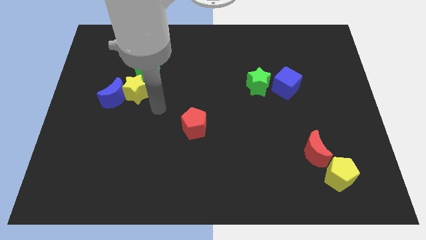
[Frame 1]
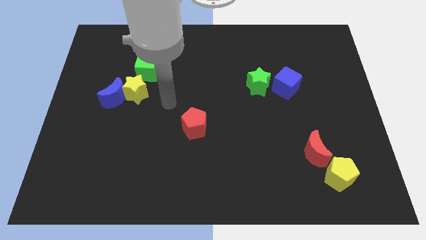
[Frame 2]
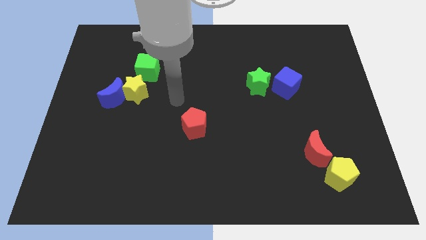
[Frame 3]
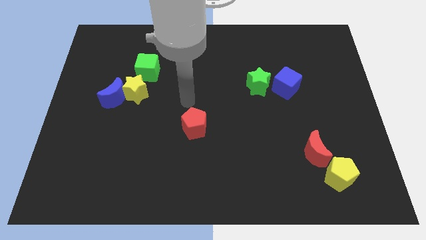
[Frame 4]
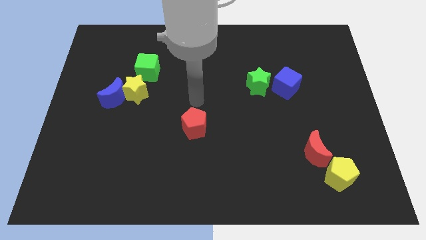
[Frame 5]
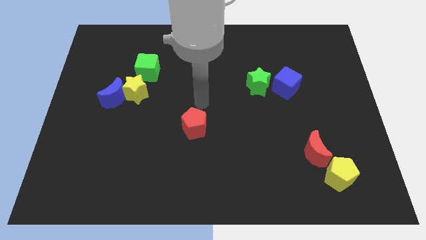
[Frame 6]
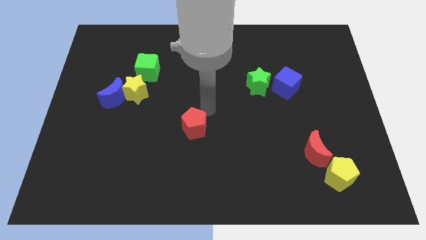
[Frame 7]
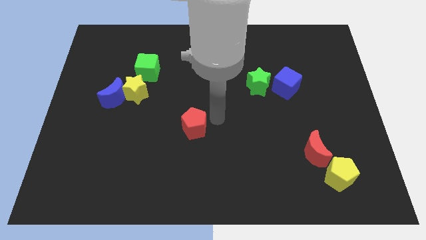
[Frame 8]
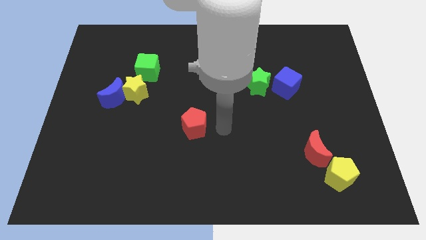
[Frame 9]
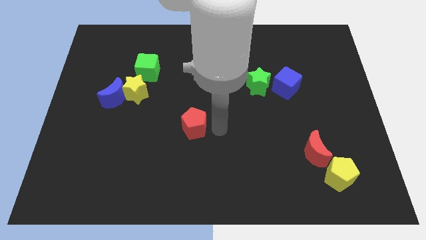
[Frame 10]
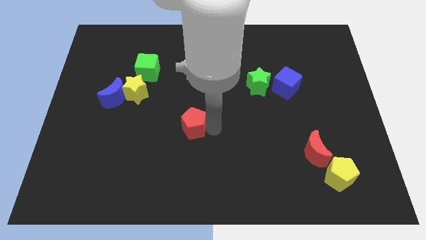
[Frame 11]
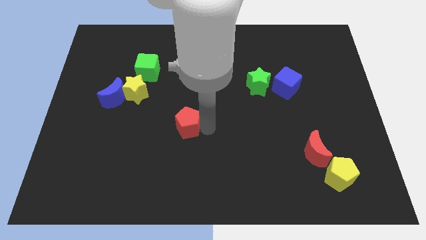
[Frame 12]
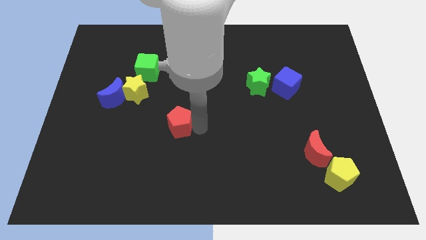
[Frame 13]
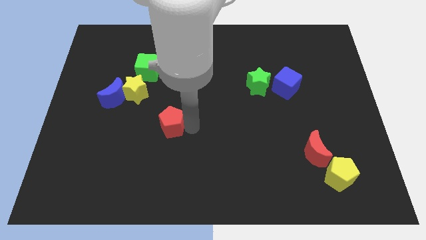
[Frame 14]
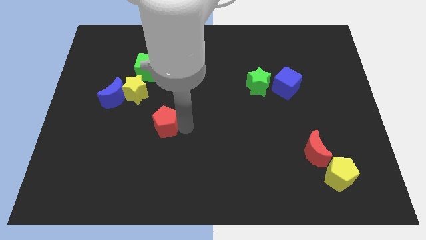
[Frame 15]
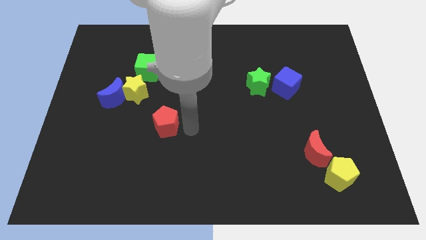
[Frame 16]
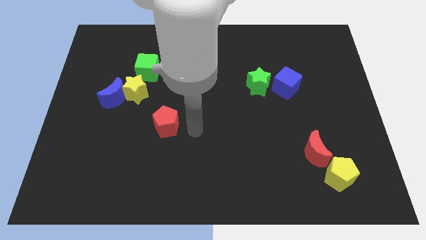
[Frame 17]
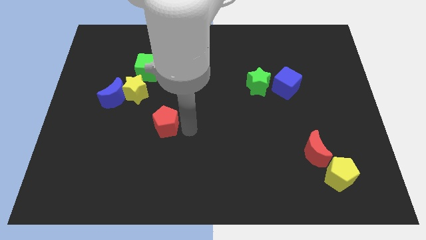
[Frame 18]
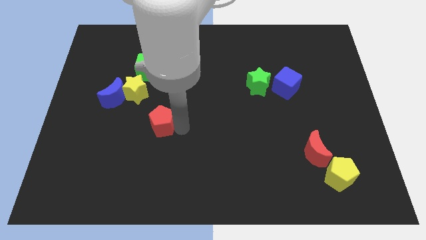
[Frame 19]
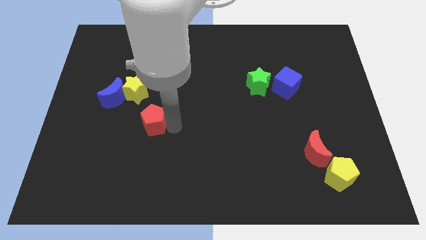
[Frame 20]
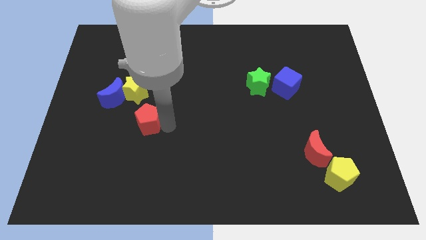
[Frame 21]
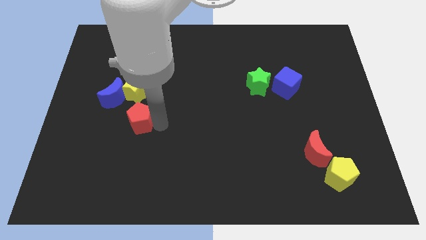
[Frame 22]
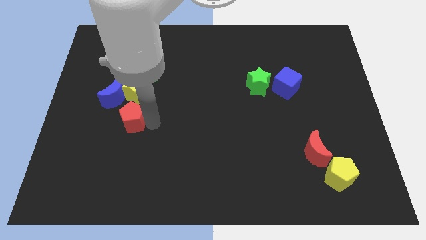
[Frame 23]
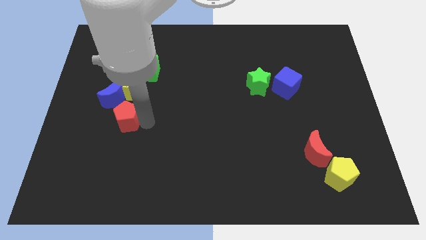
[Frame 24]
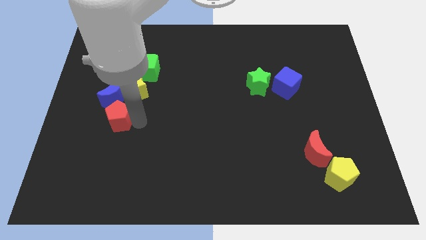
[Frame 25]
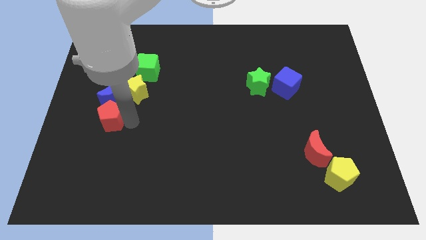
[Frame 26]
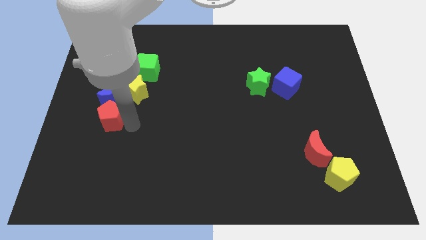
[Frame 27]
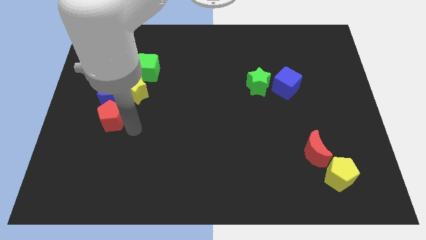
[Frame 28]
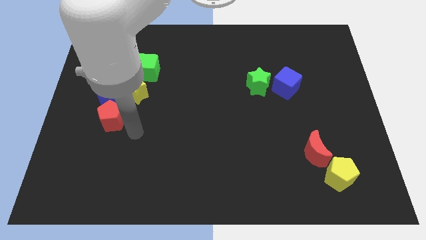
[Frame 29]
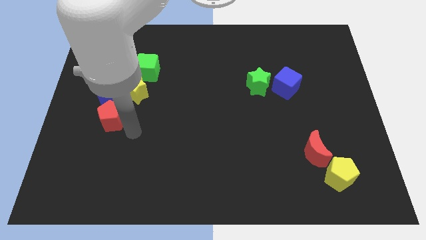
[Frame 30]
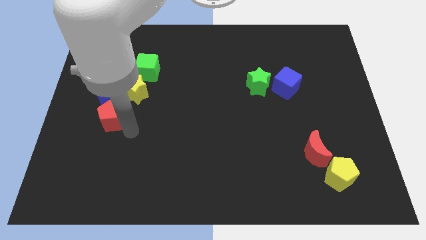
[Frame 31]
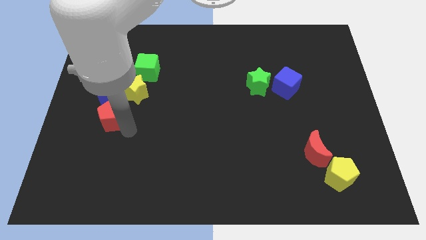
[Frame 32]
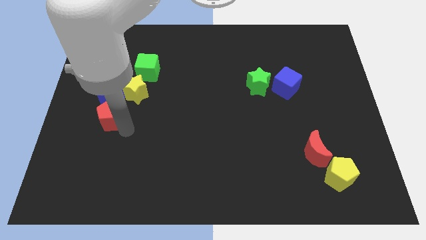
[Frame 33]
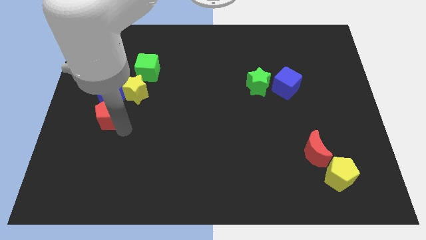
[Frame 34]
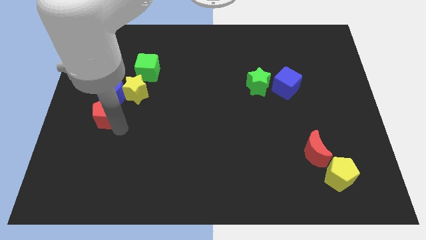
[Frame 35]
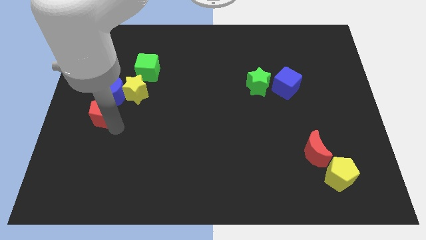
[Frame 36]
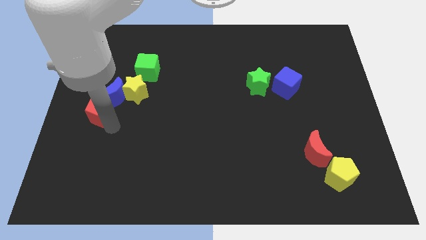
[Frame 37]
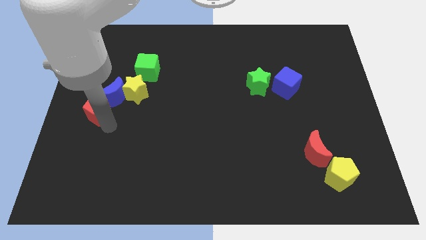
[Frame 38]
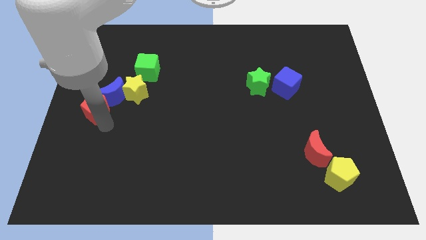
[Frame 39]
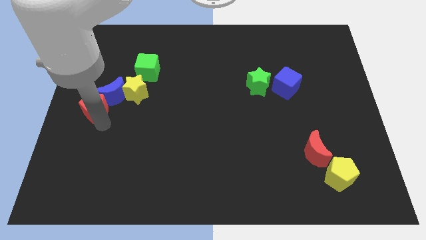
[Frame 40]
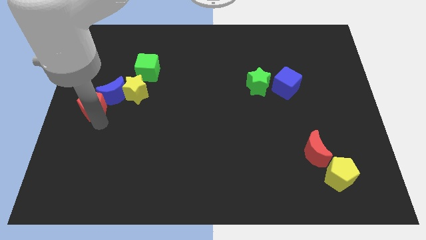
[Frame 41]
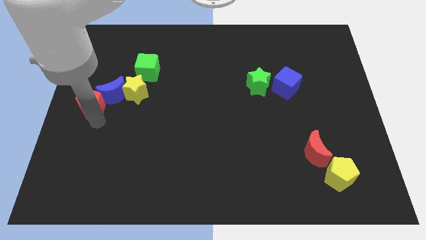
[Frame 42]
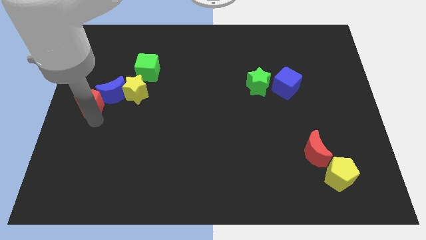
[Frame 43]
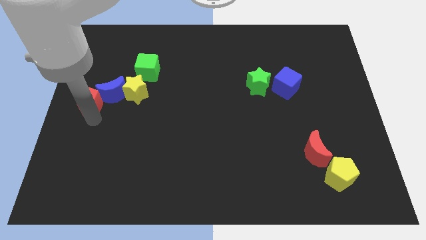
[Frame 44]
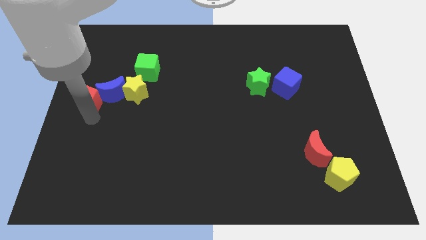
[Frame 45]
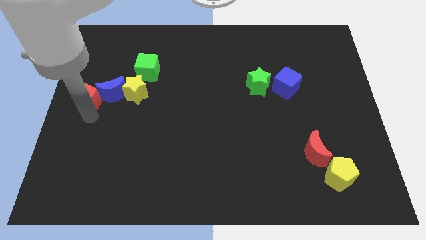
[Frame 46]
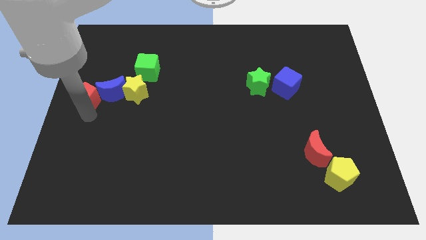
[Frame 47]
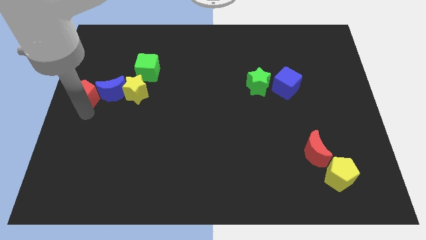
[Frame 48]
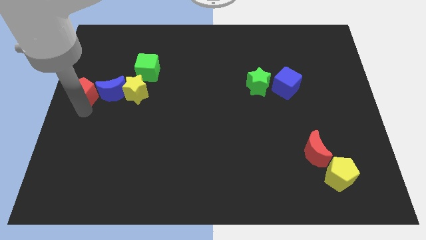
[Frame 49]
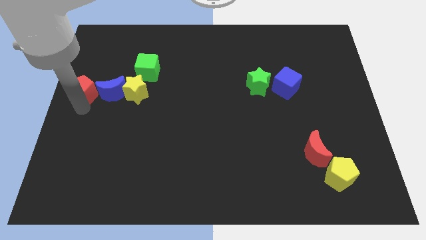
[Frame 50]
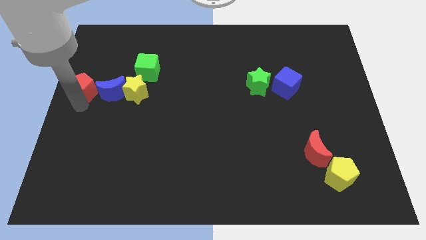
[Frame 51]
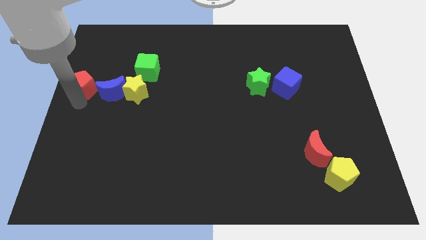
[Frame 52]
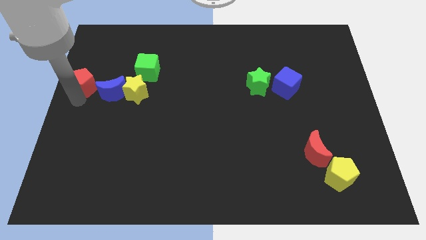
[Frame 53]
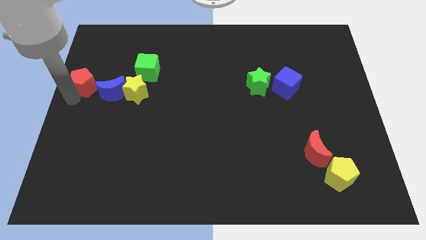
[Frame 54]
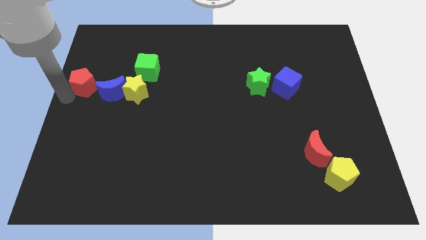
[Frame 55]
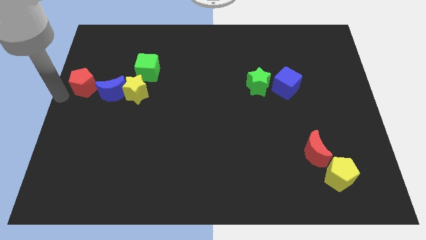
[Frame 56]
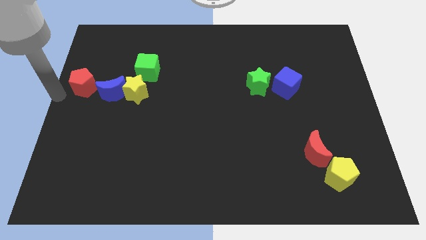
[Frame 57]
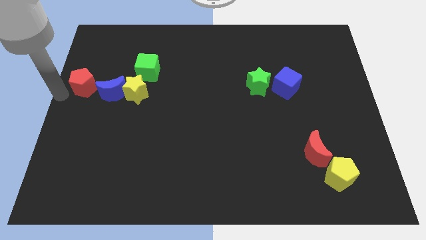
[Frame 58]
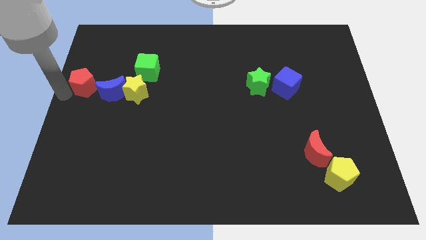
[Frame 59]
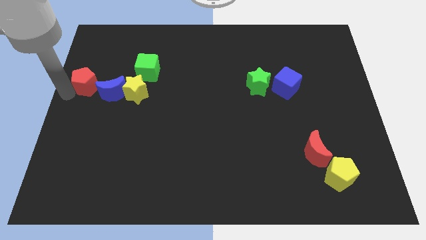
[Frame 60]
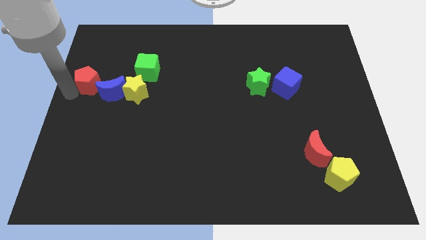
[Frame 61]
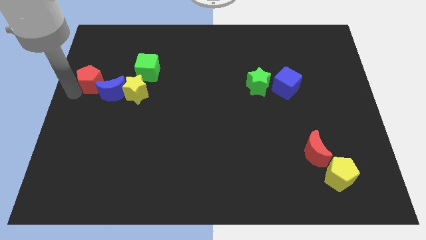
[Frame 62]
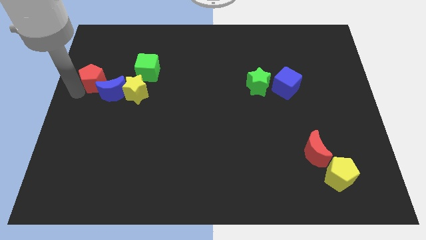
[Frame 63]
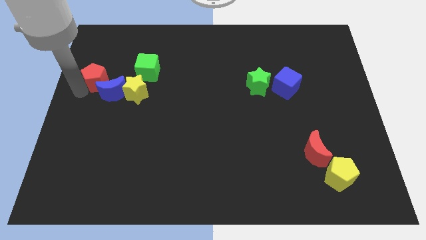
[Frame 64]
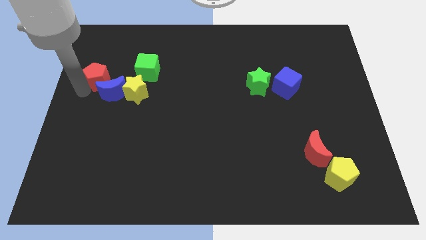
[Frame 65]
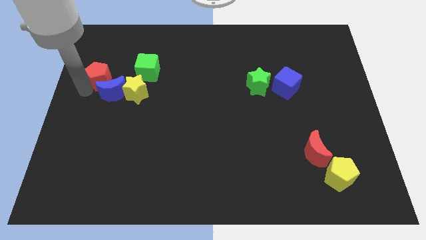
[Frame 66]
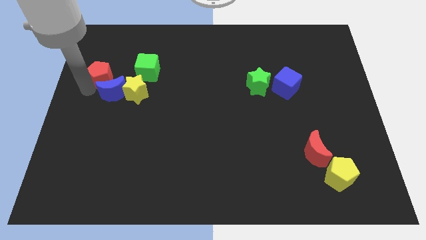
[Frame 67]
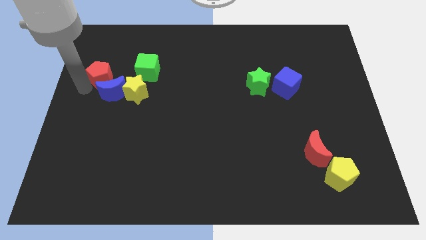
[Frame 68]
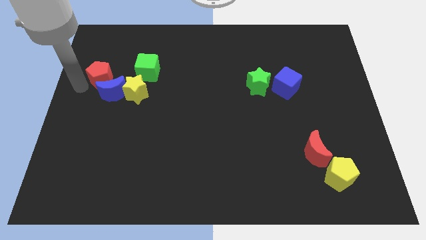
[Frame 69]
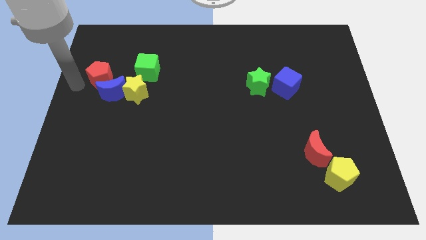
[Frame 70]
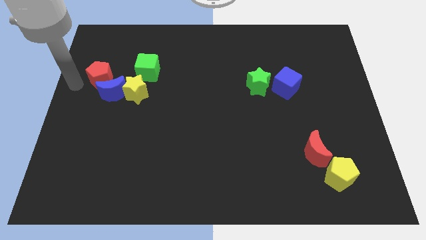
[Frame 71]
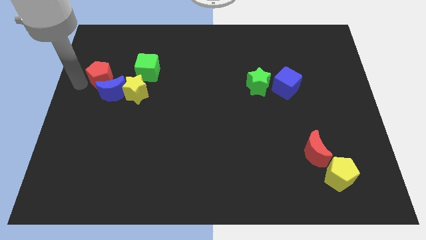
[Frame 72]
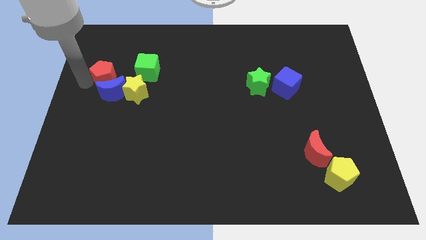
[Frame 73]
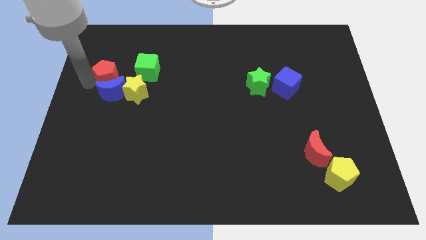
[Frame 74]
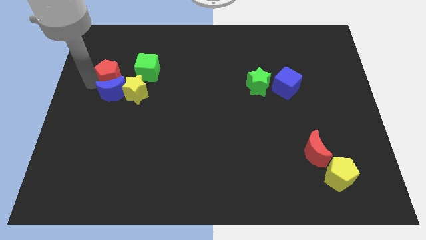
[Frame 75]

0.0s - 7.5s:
move the red pentagon to the bottom left side of the green cube
